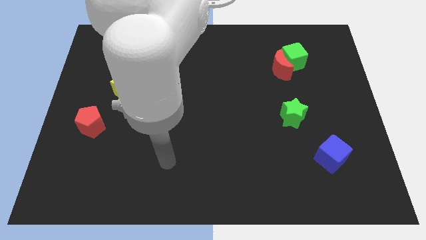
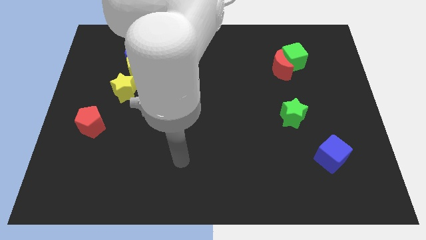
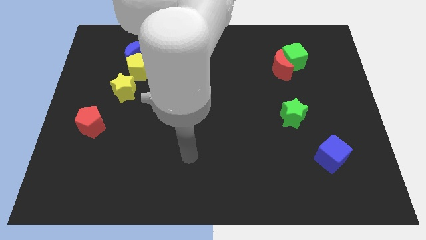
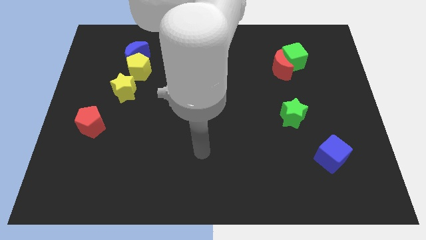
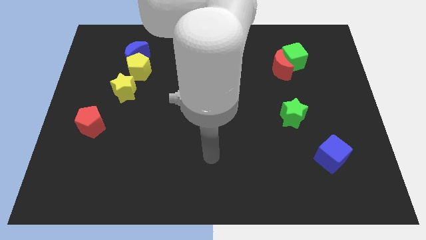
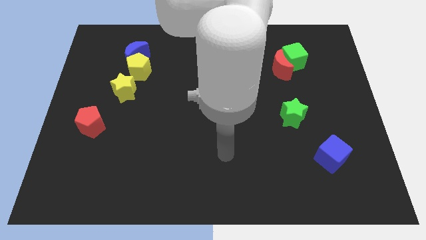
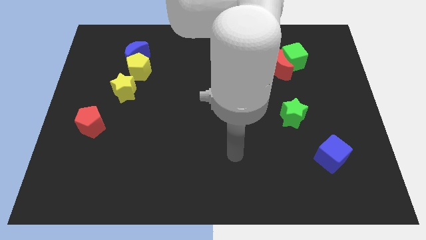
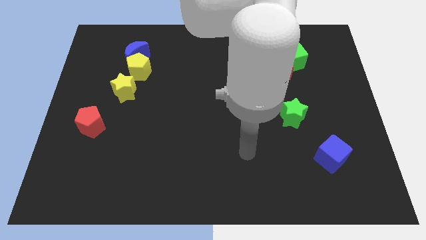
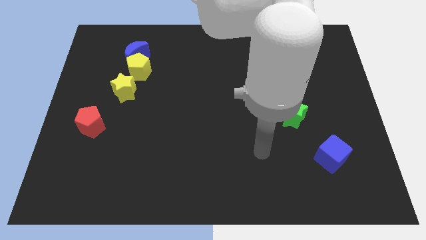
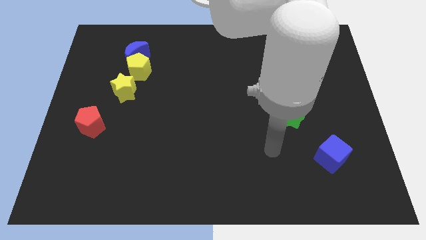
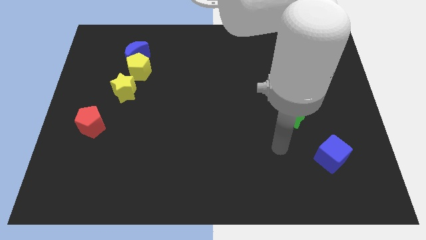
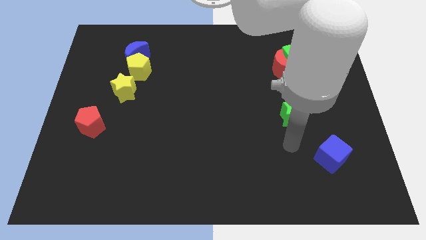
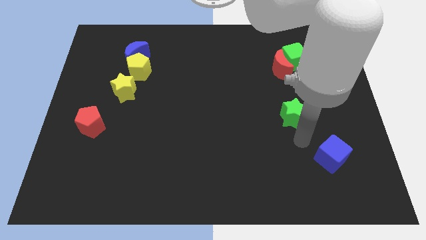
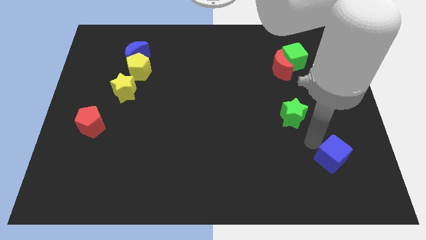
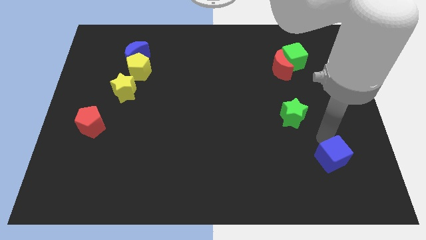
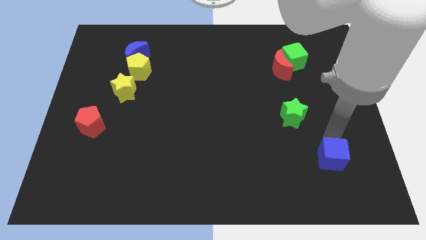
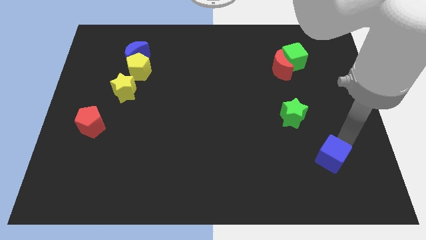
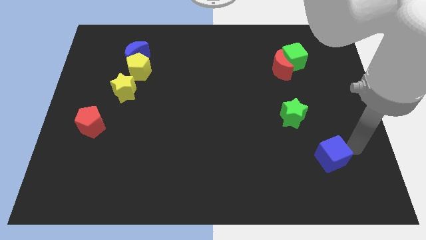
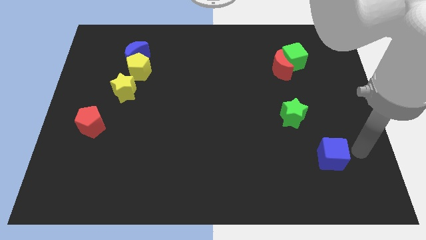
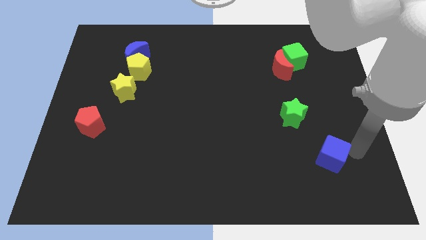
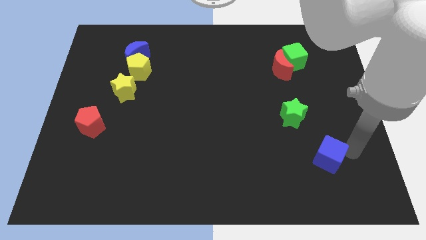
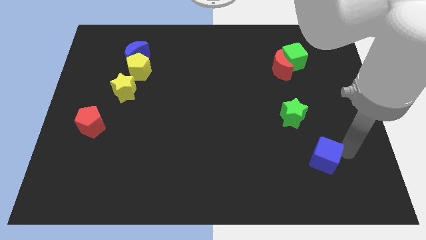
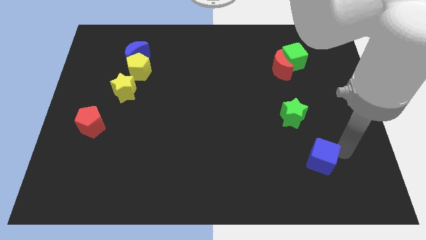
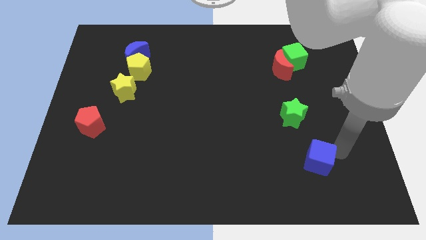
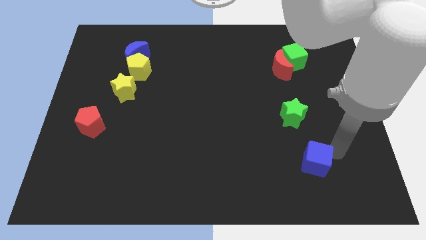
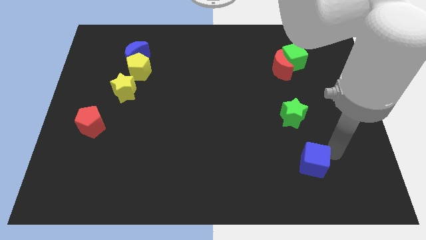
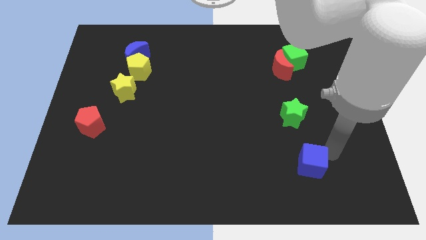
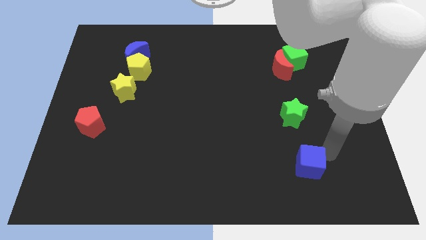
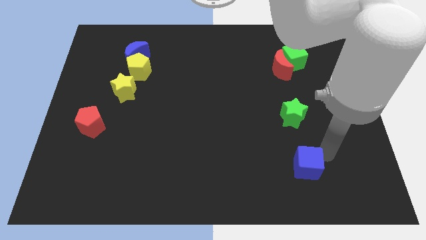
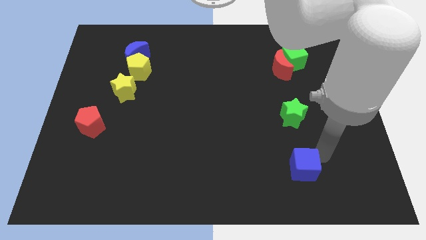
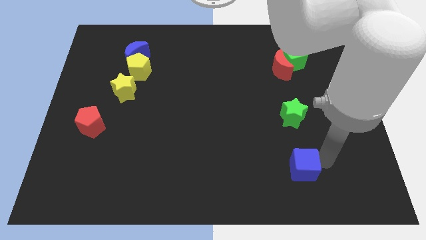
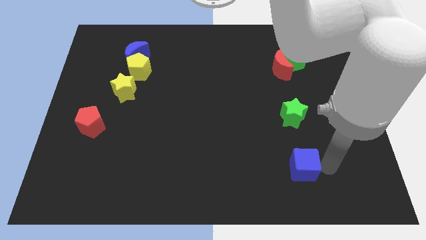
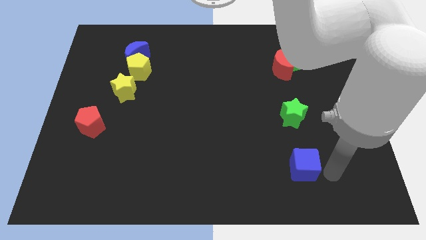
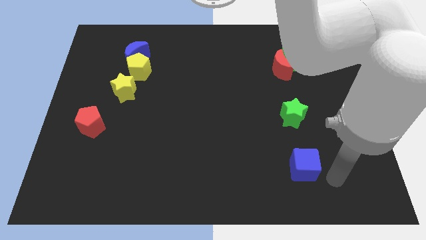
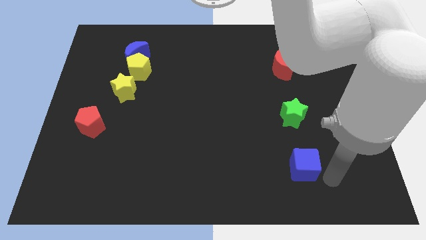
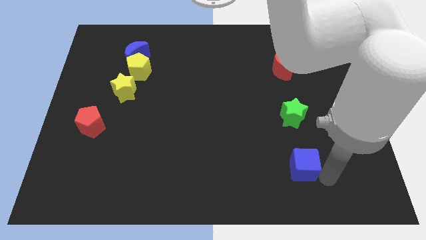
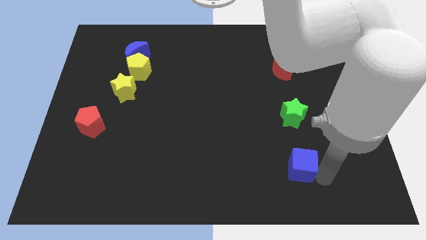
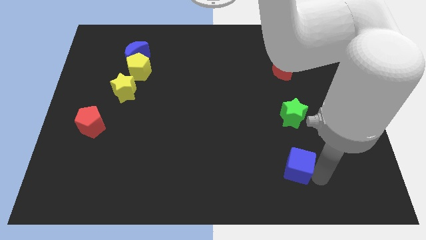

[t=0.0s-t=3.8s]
slightly push the blue cube to the left

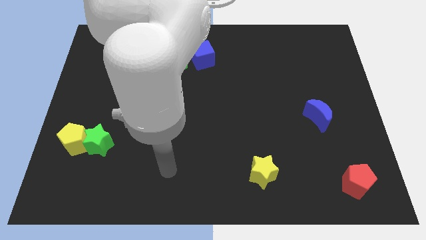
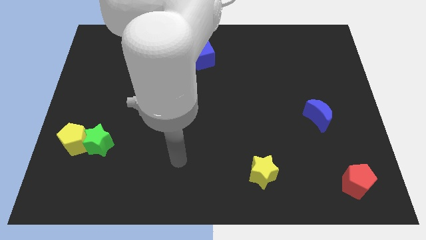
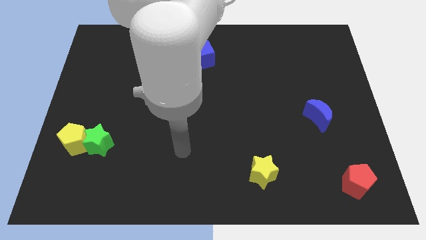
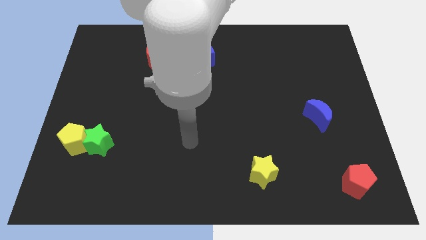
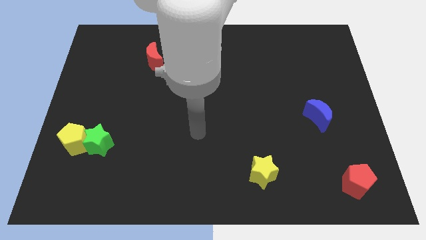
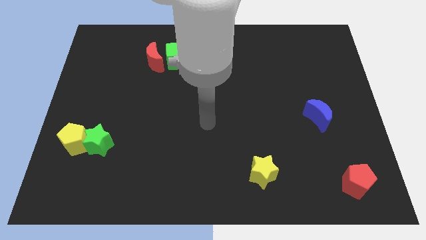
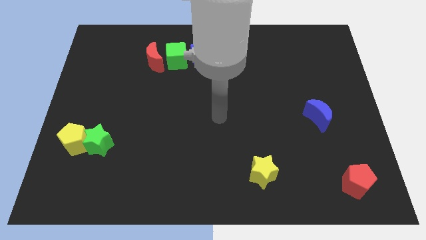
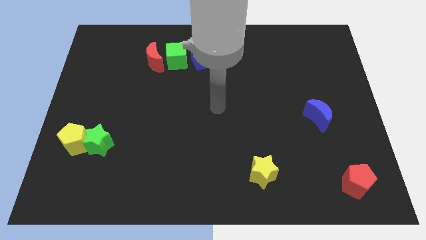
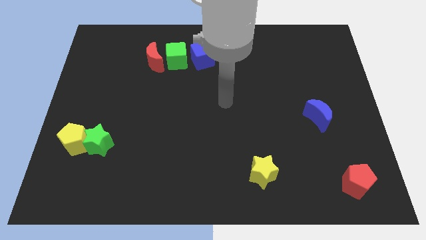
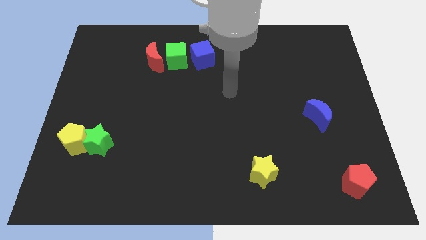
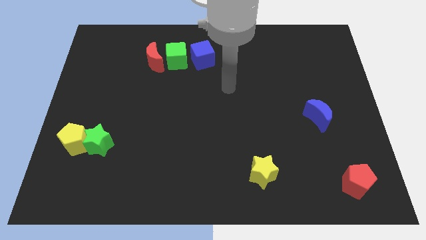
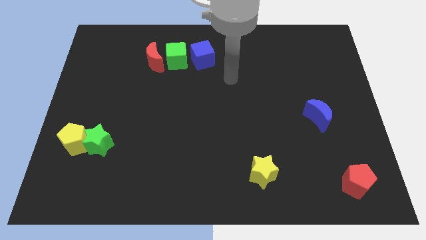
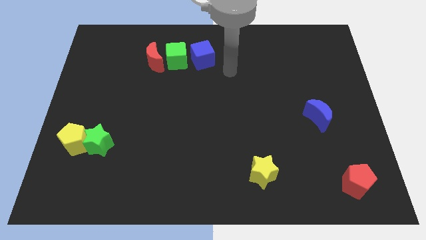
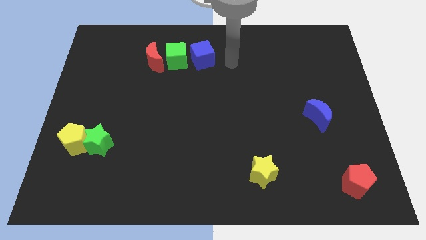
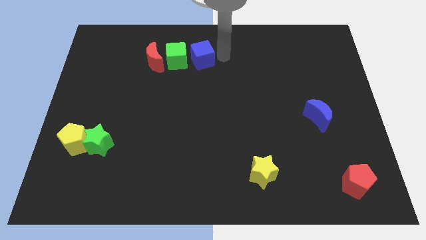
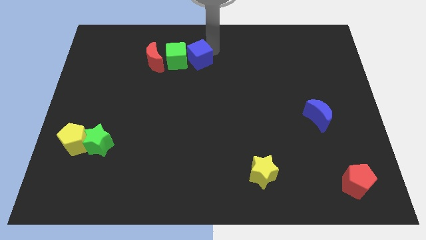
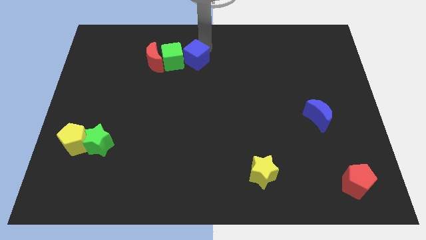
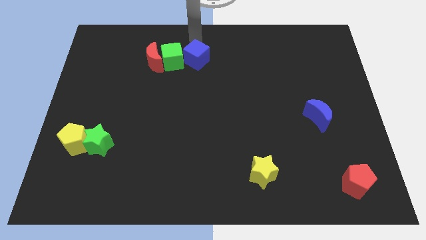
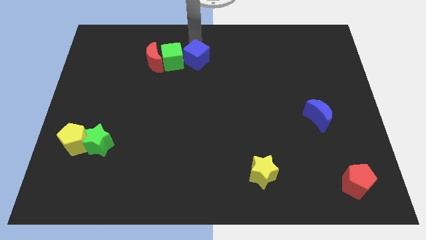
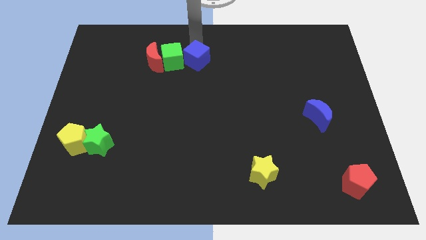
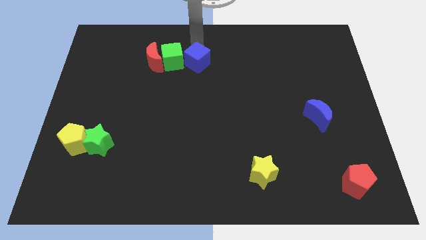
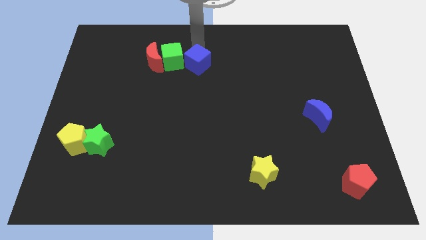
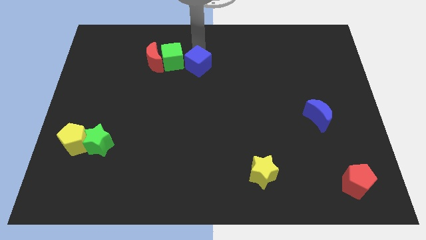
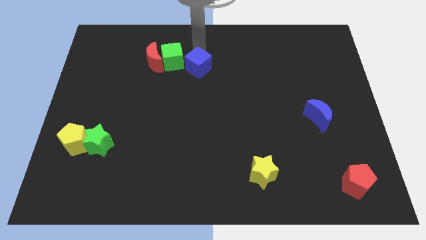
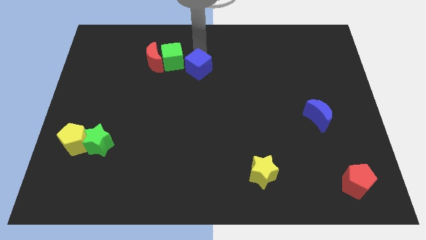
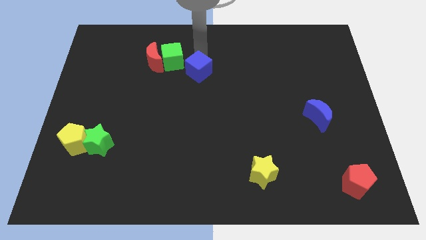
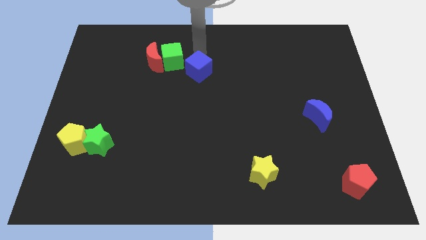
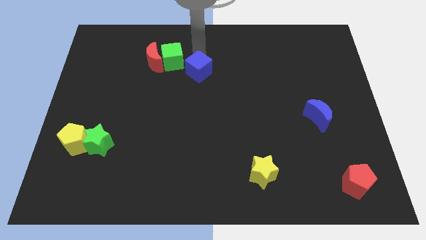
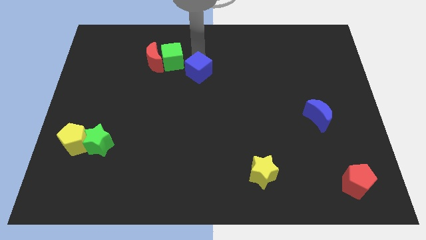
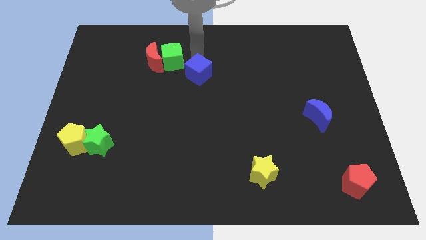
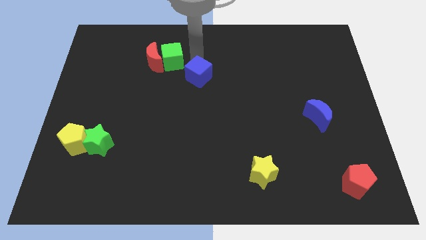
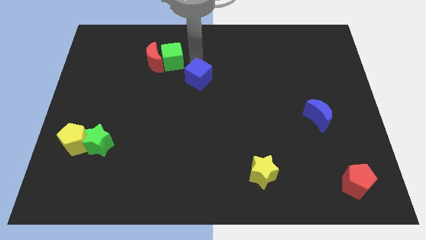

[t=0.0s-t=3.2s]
push the blue cube down a bit

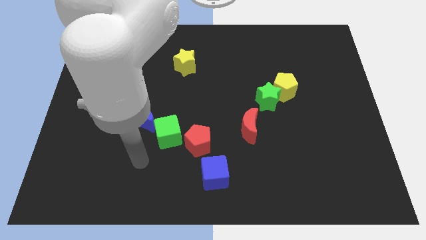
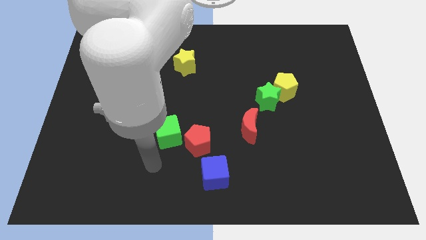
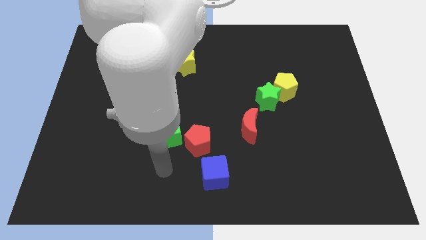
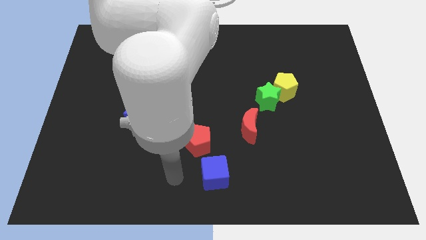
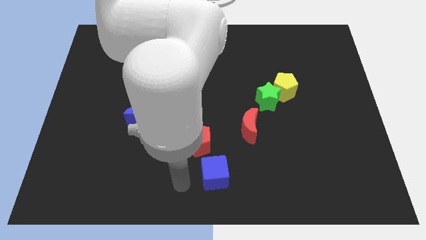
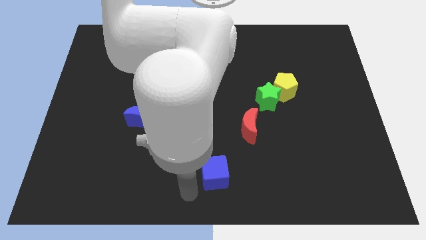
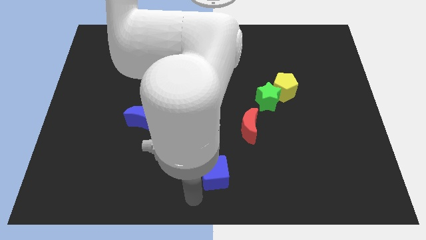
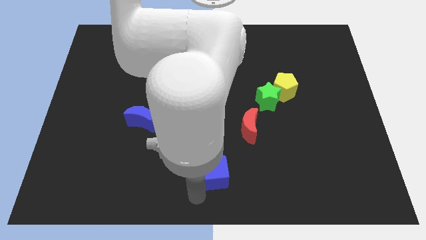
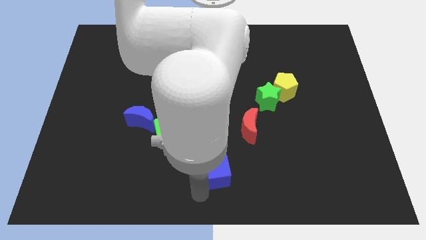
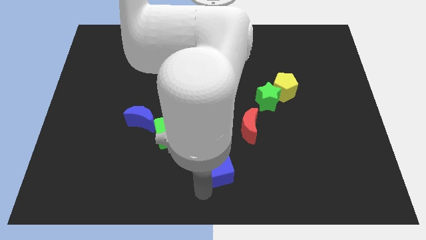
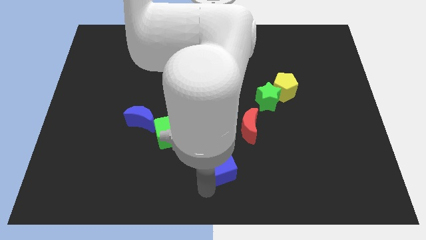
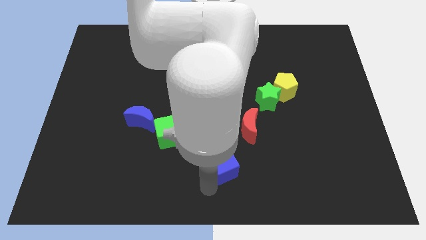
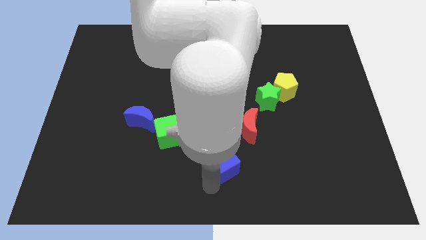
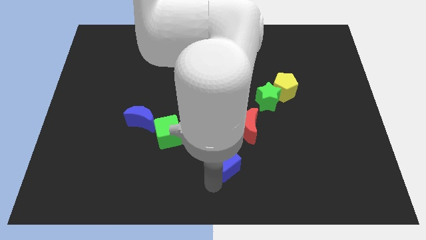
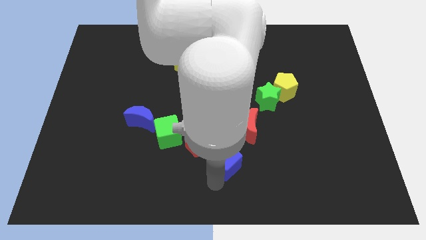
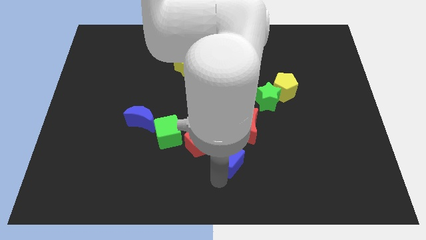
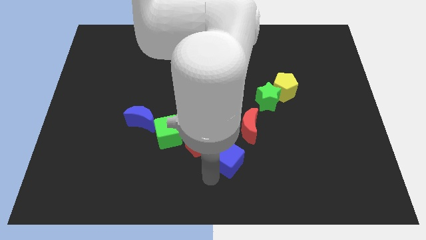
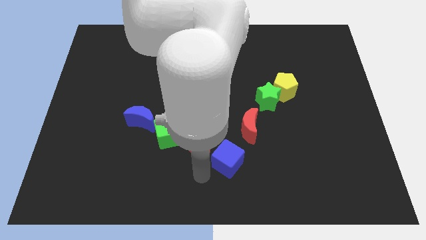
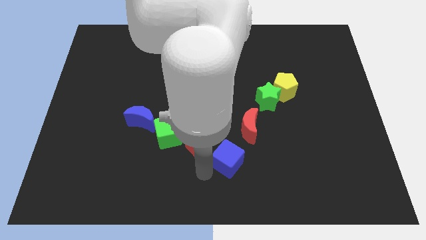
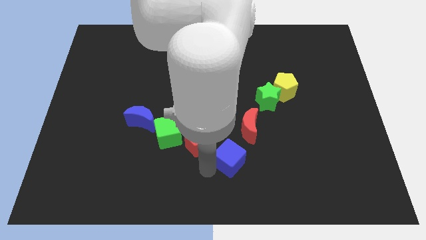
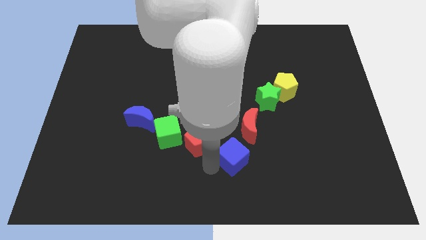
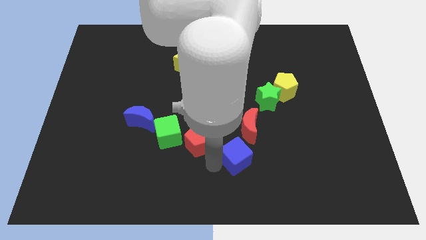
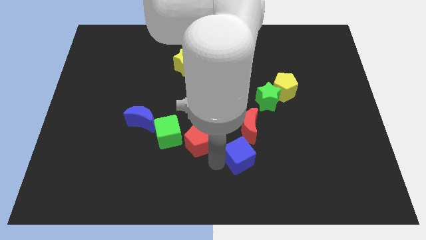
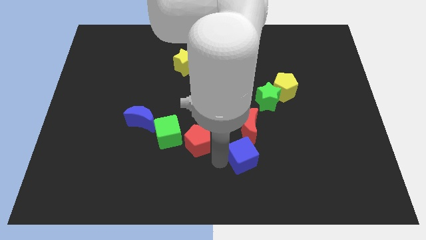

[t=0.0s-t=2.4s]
slightly slide the blue cube upwards and to the right diagonally
